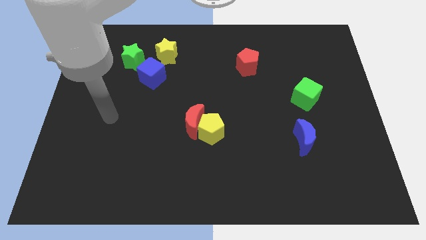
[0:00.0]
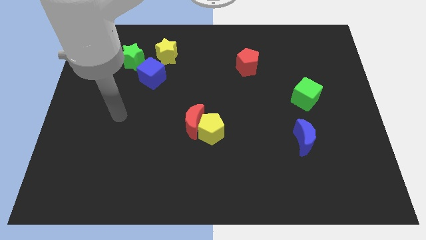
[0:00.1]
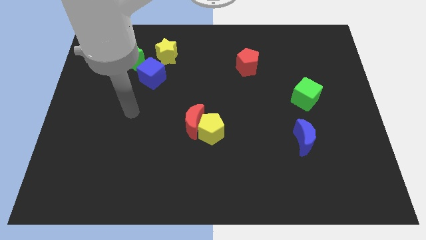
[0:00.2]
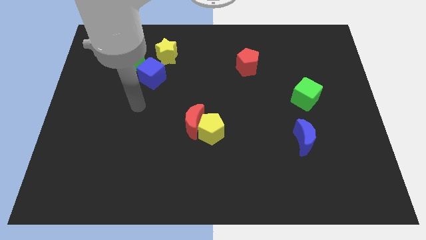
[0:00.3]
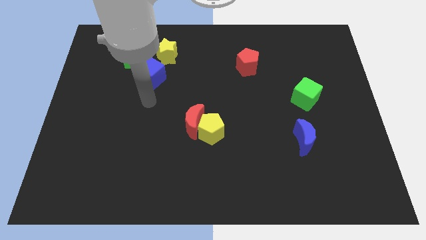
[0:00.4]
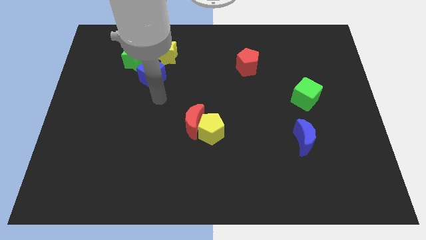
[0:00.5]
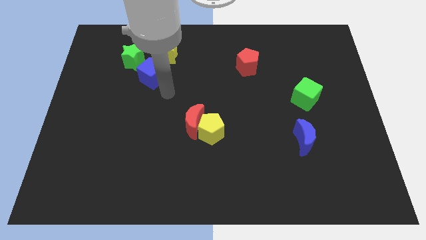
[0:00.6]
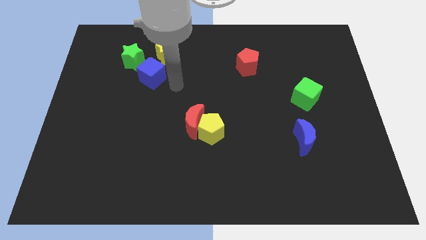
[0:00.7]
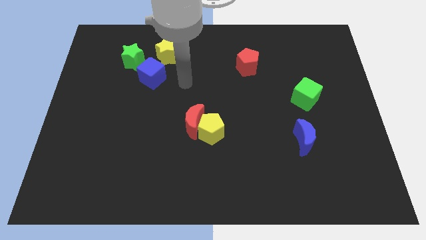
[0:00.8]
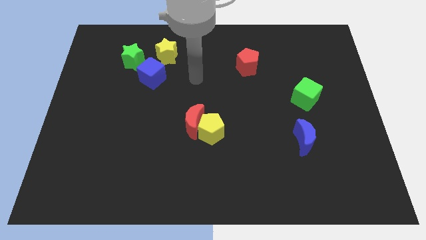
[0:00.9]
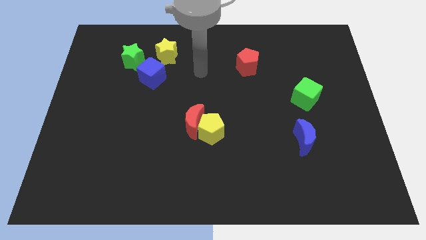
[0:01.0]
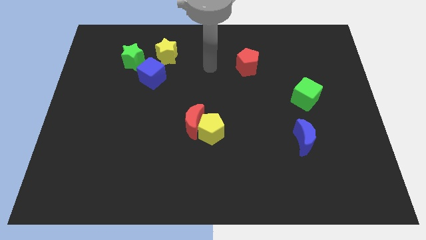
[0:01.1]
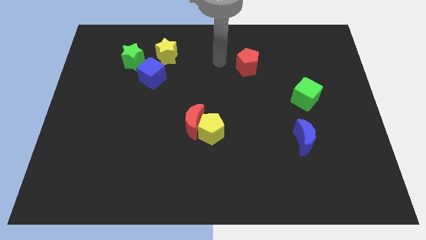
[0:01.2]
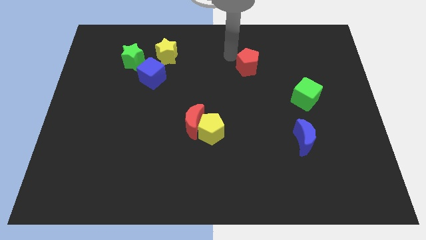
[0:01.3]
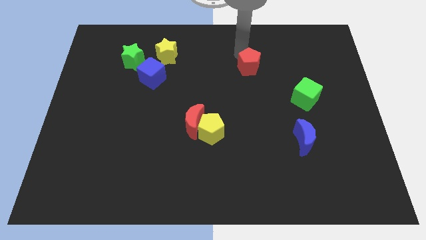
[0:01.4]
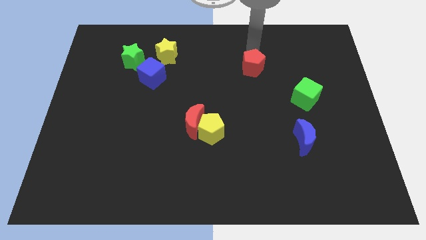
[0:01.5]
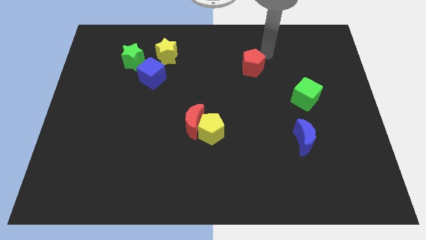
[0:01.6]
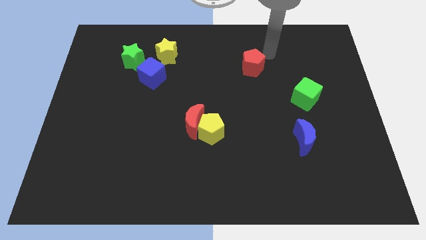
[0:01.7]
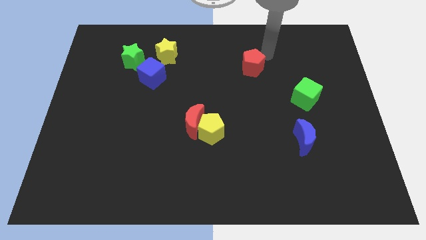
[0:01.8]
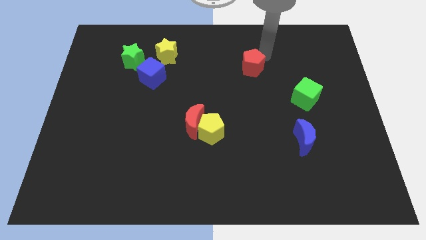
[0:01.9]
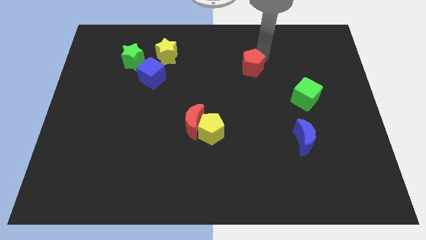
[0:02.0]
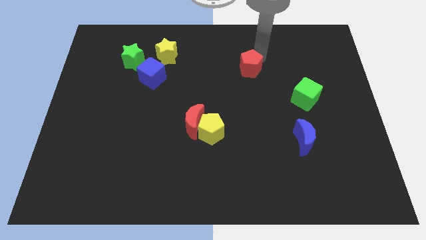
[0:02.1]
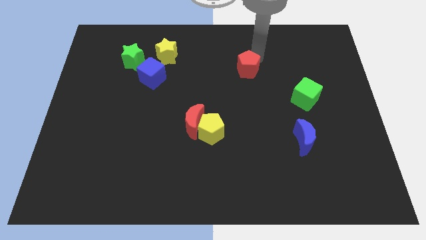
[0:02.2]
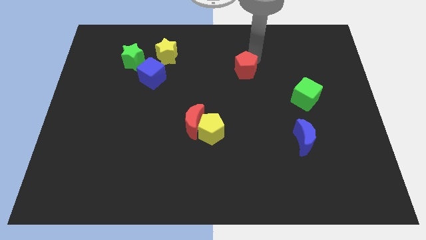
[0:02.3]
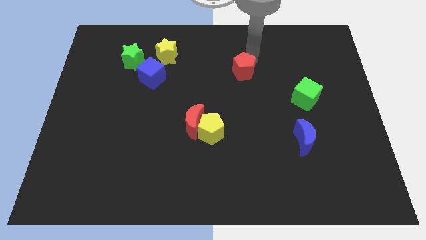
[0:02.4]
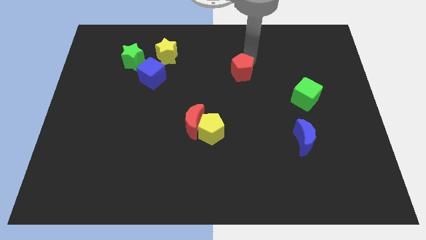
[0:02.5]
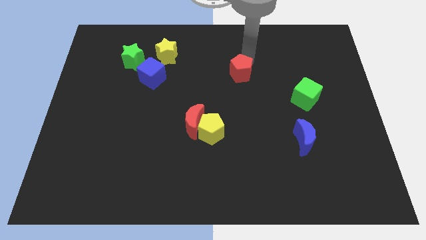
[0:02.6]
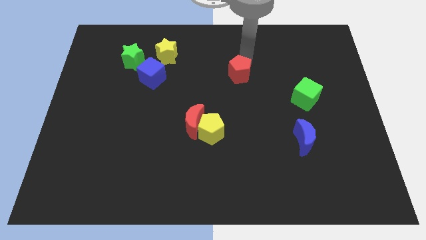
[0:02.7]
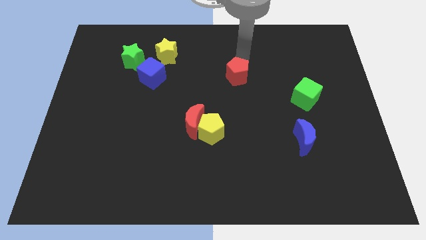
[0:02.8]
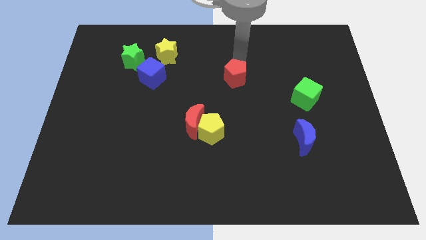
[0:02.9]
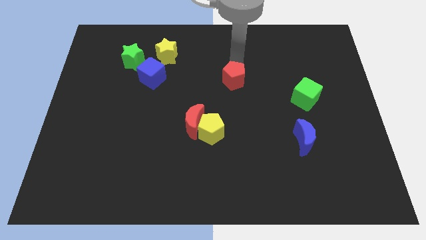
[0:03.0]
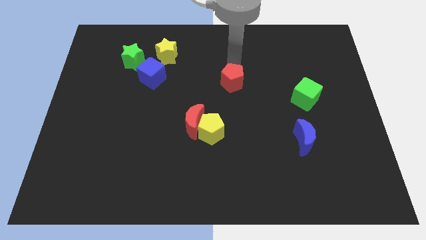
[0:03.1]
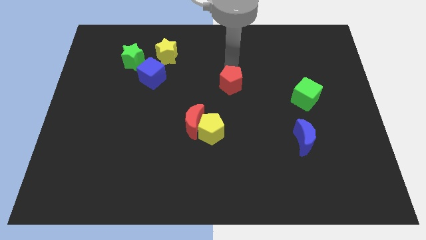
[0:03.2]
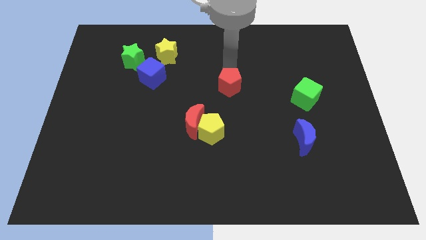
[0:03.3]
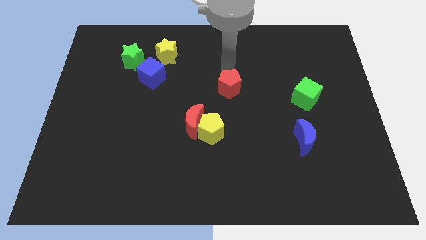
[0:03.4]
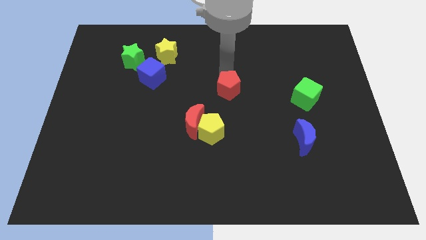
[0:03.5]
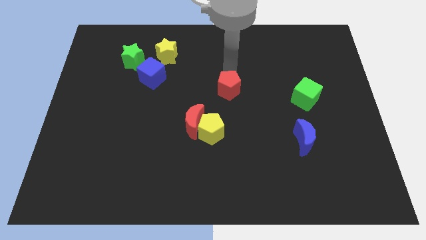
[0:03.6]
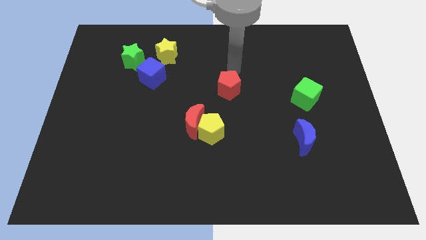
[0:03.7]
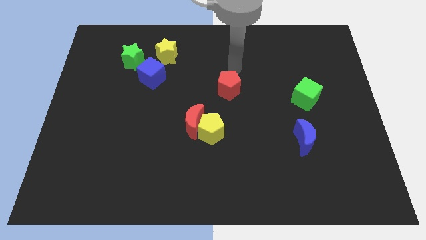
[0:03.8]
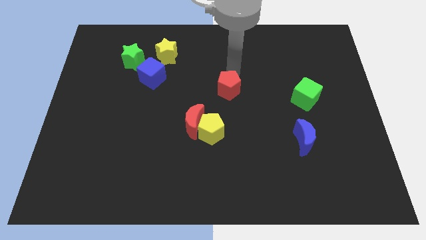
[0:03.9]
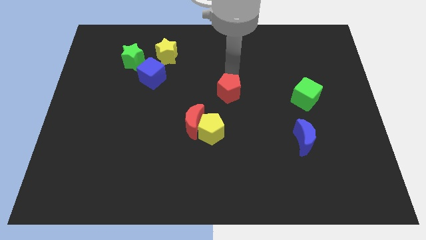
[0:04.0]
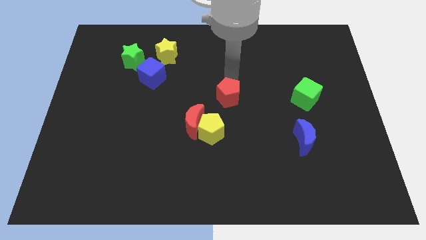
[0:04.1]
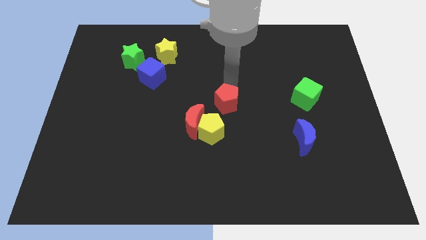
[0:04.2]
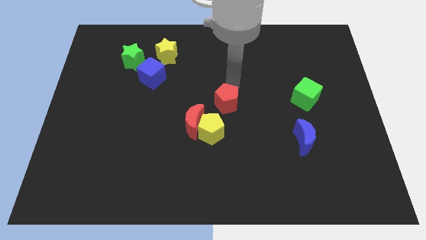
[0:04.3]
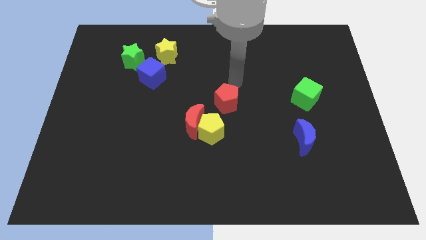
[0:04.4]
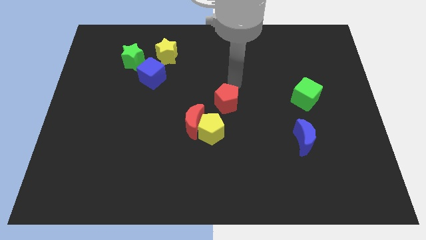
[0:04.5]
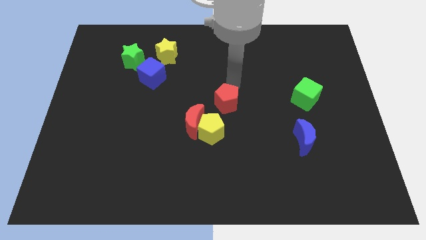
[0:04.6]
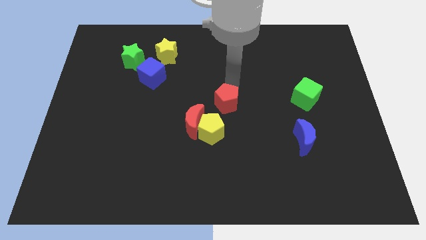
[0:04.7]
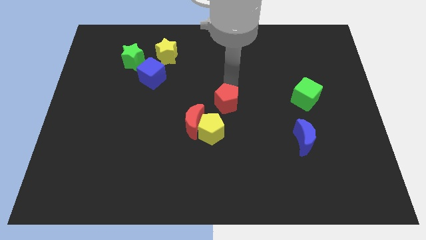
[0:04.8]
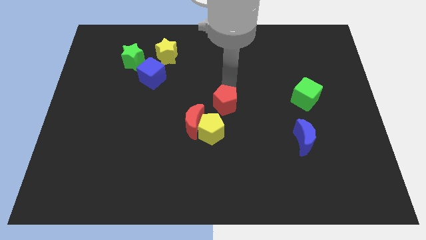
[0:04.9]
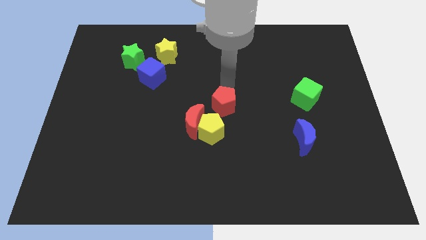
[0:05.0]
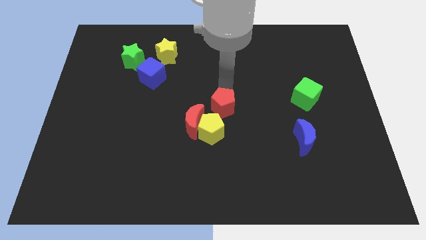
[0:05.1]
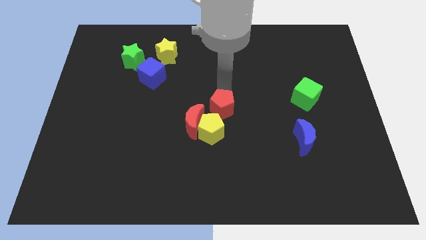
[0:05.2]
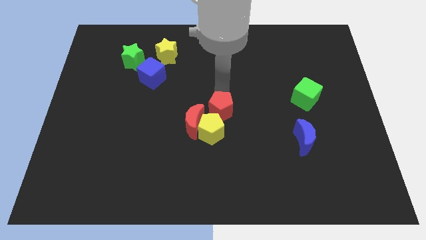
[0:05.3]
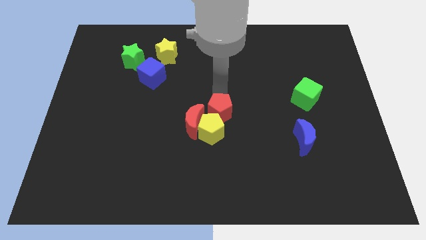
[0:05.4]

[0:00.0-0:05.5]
put the red pentagon close to the yellow pentagon

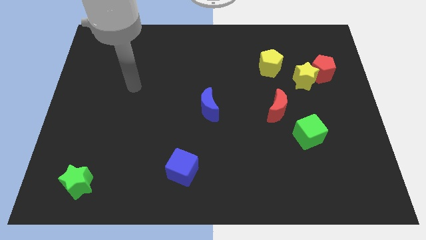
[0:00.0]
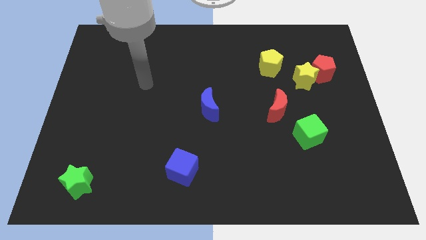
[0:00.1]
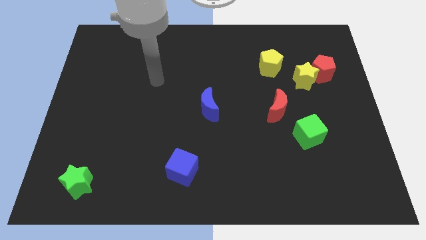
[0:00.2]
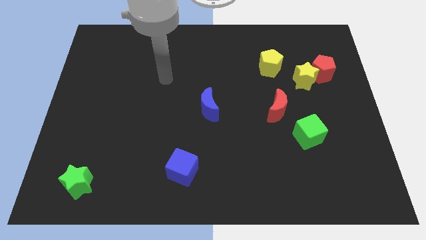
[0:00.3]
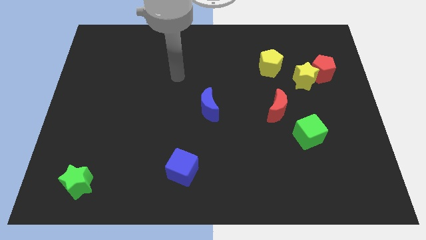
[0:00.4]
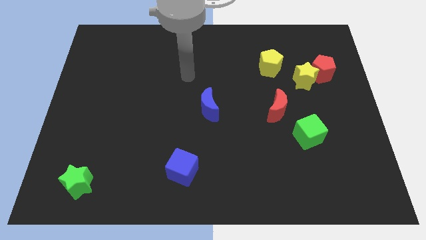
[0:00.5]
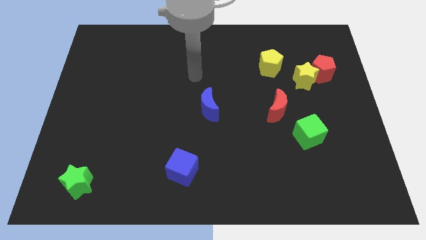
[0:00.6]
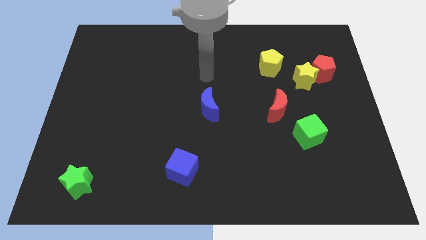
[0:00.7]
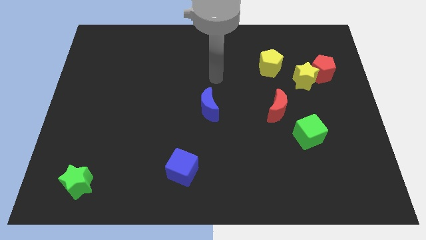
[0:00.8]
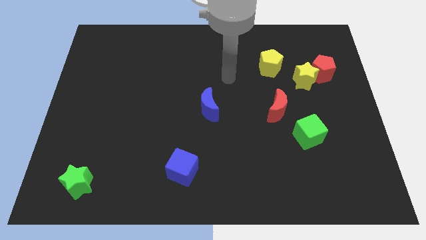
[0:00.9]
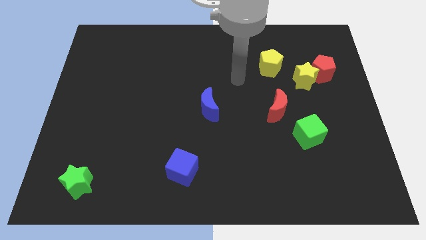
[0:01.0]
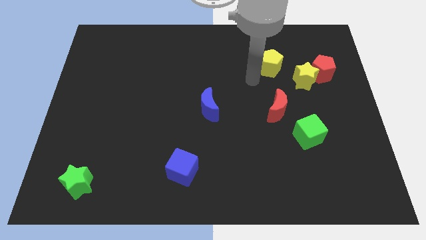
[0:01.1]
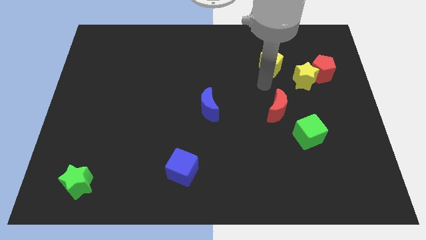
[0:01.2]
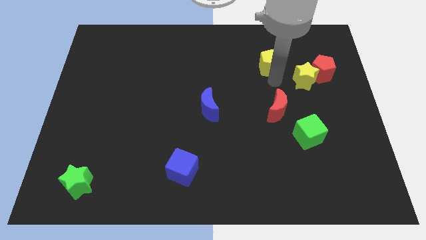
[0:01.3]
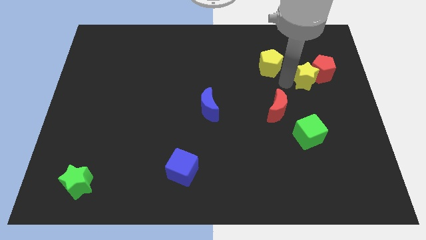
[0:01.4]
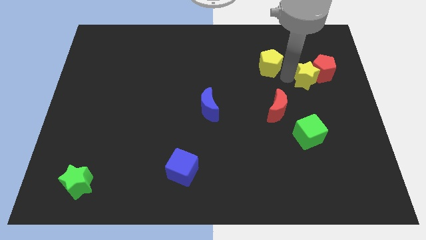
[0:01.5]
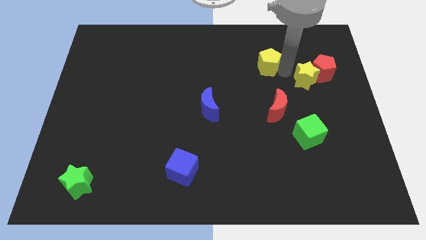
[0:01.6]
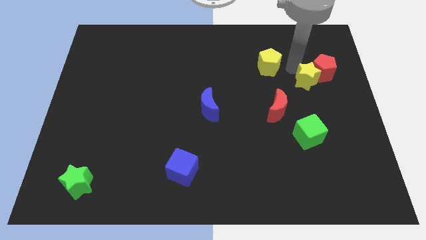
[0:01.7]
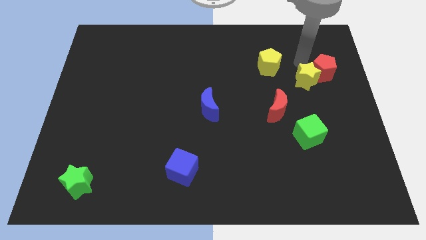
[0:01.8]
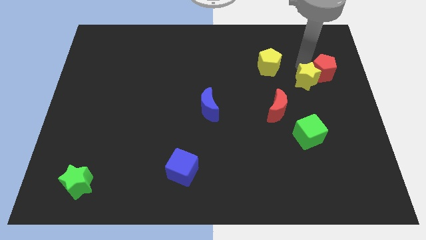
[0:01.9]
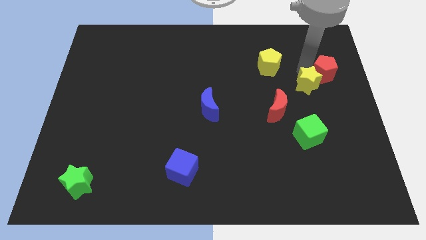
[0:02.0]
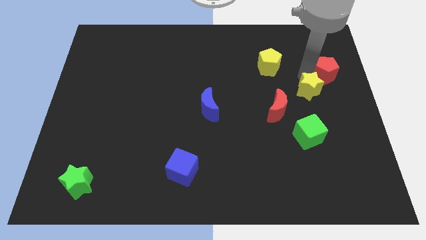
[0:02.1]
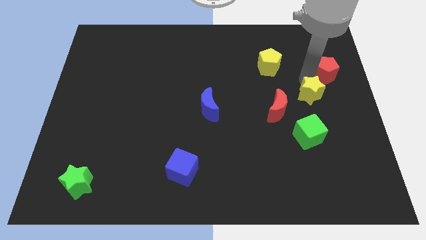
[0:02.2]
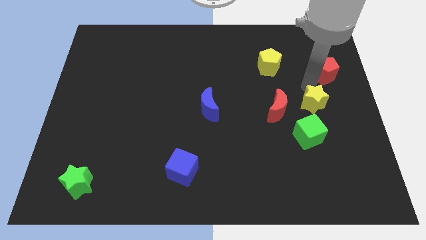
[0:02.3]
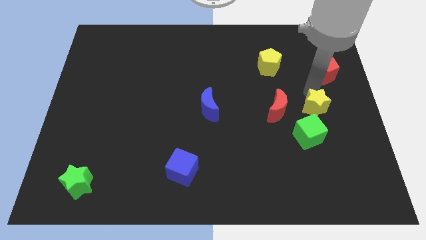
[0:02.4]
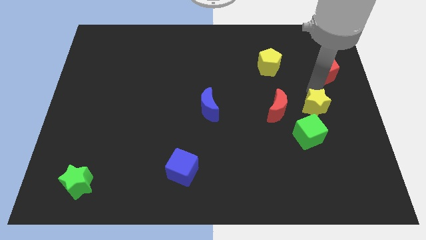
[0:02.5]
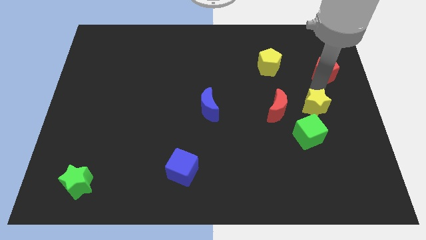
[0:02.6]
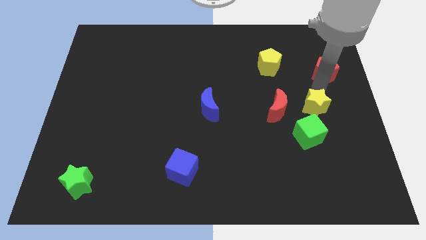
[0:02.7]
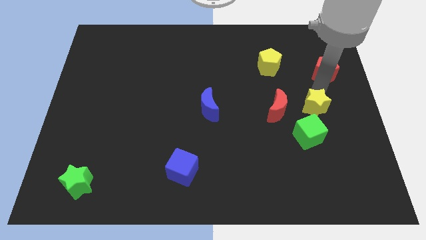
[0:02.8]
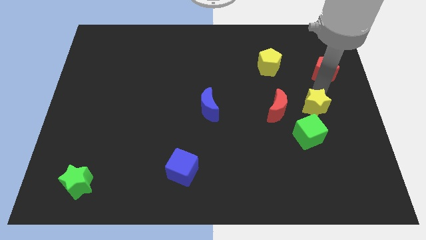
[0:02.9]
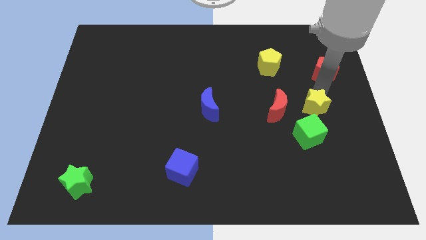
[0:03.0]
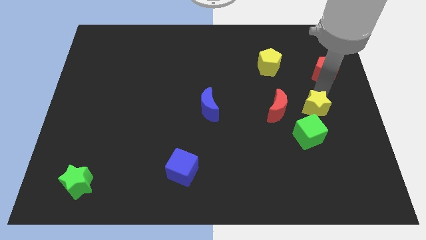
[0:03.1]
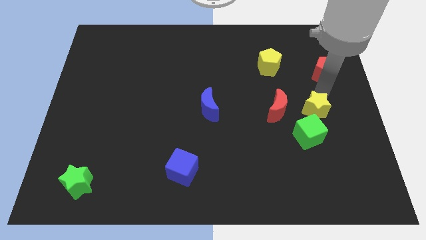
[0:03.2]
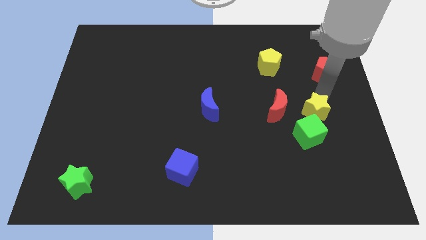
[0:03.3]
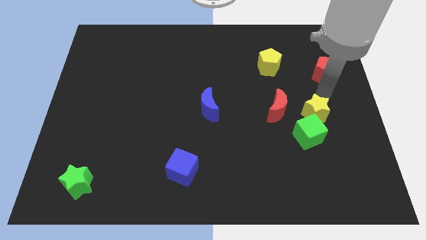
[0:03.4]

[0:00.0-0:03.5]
move the yellow star towards the green cube
